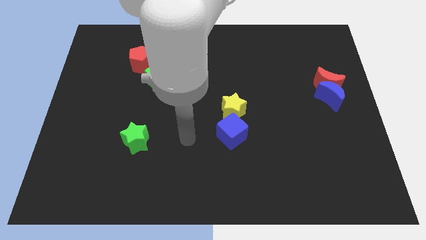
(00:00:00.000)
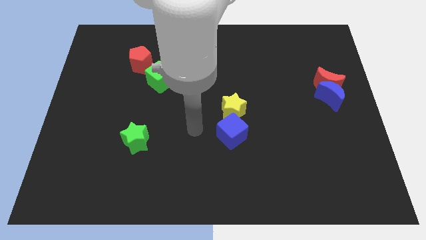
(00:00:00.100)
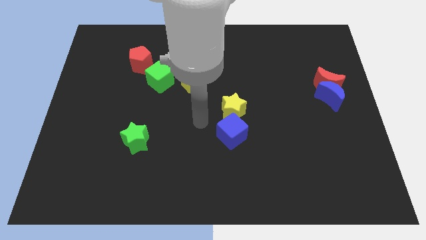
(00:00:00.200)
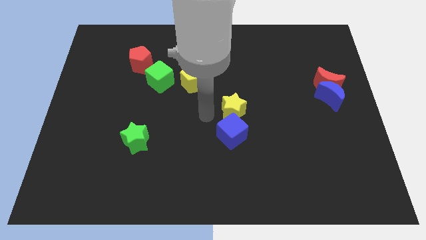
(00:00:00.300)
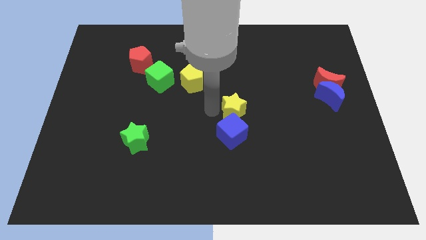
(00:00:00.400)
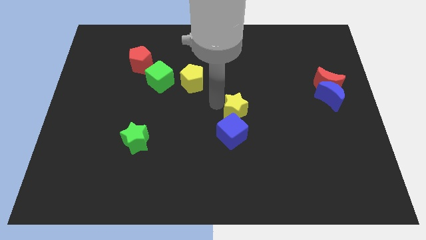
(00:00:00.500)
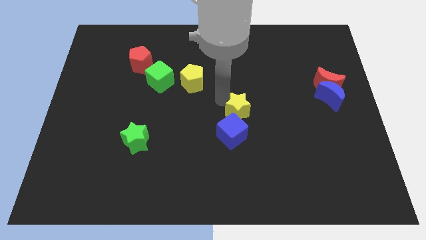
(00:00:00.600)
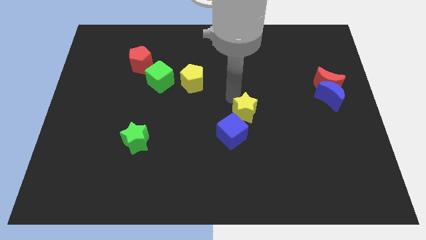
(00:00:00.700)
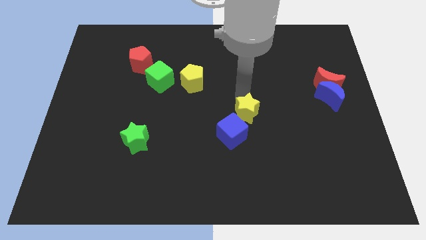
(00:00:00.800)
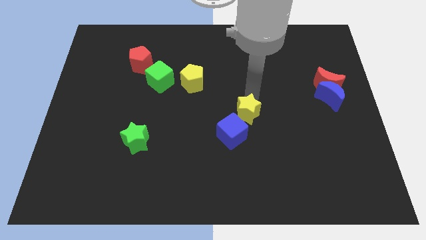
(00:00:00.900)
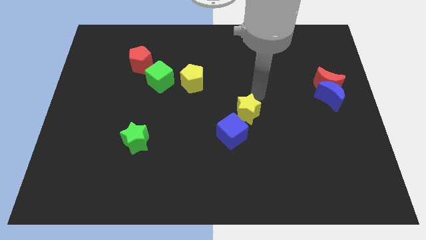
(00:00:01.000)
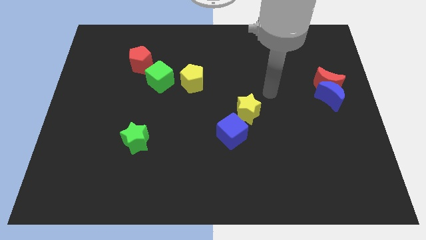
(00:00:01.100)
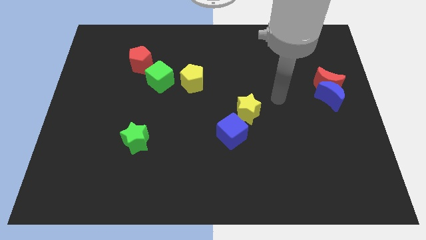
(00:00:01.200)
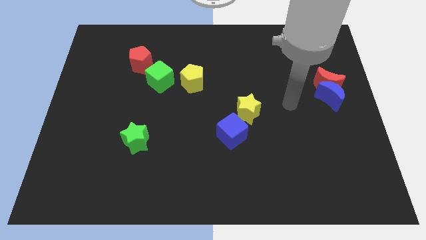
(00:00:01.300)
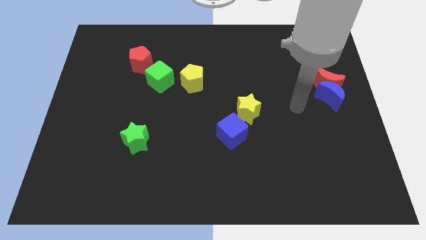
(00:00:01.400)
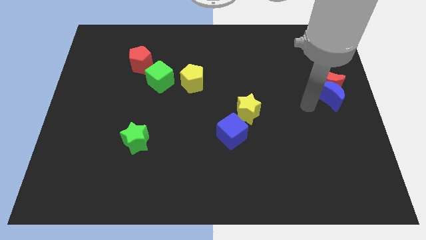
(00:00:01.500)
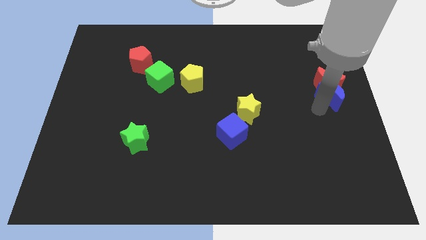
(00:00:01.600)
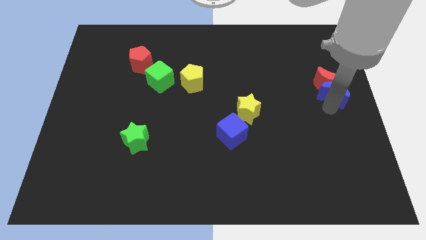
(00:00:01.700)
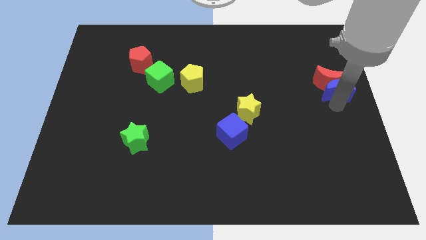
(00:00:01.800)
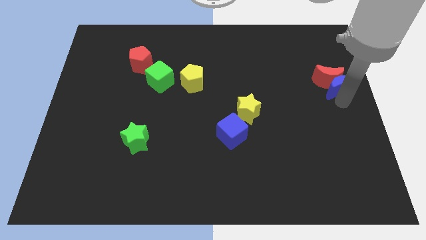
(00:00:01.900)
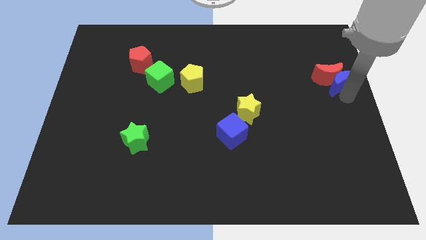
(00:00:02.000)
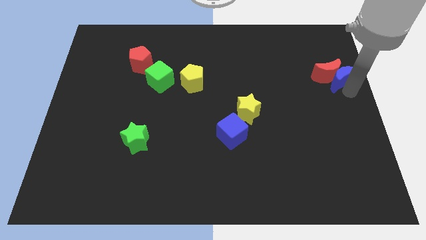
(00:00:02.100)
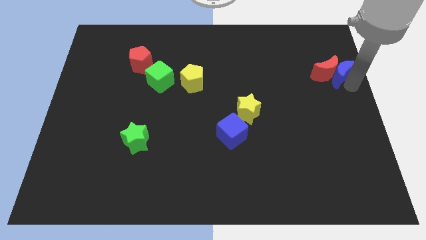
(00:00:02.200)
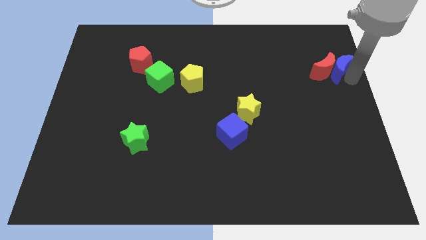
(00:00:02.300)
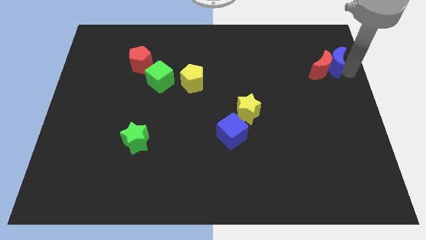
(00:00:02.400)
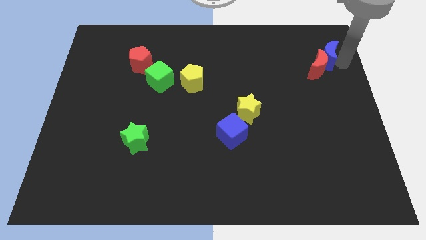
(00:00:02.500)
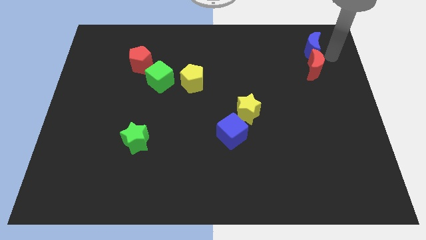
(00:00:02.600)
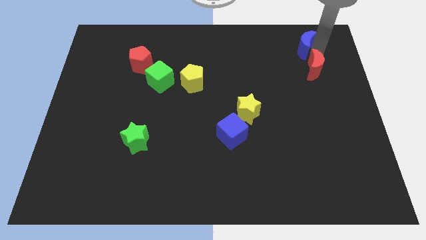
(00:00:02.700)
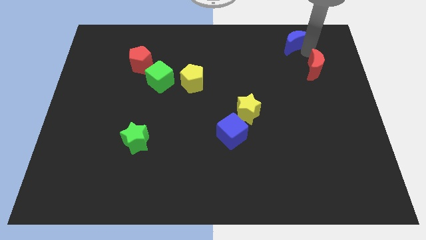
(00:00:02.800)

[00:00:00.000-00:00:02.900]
move the red moon away from the blue moon

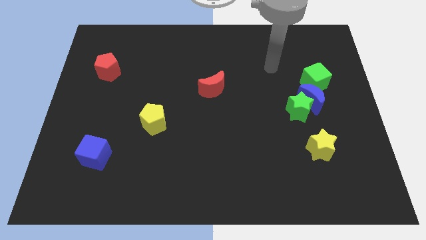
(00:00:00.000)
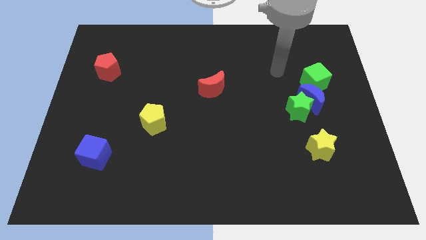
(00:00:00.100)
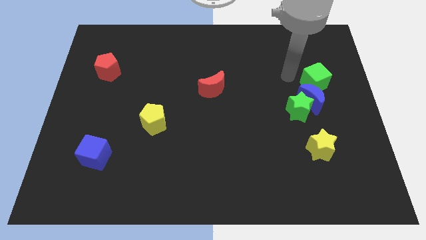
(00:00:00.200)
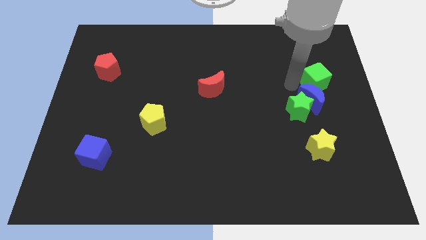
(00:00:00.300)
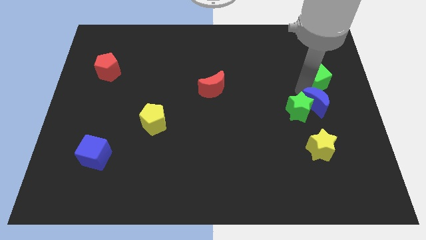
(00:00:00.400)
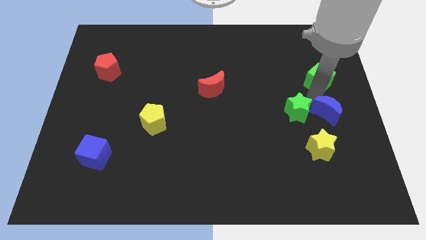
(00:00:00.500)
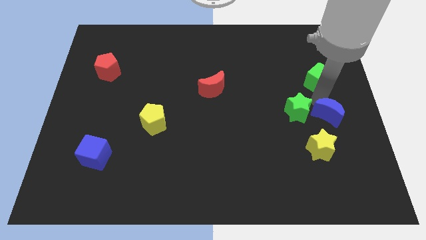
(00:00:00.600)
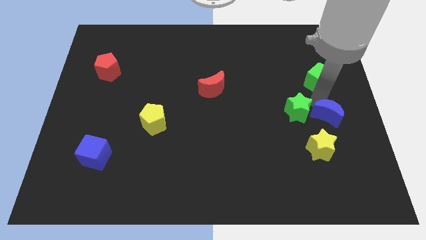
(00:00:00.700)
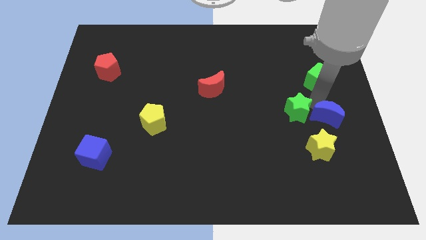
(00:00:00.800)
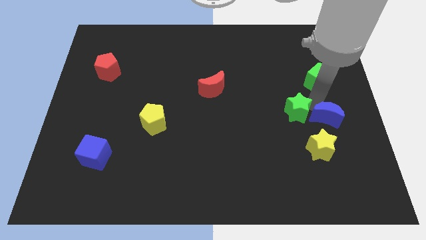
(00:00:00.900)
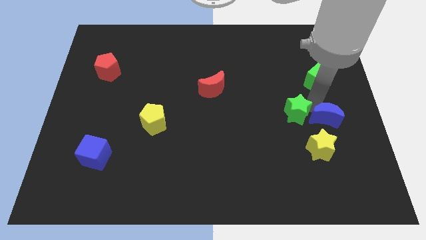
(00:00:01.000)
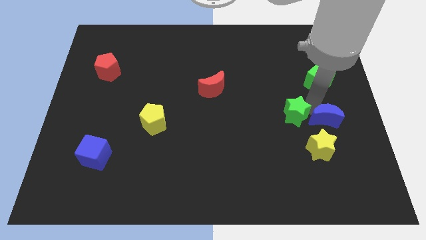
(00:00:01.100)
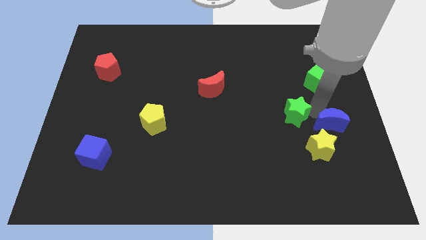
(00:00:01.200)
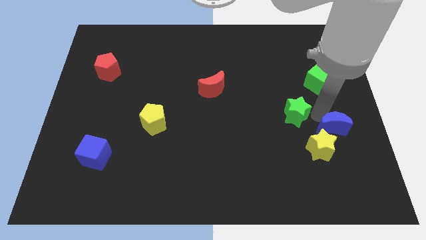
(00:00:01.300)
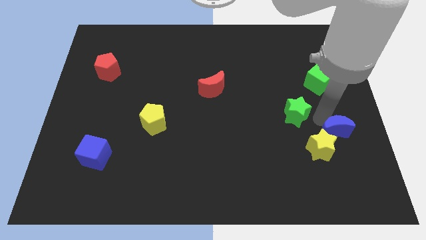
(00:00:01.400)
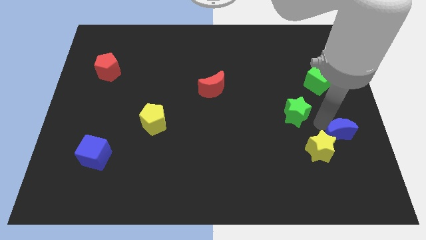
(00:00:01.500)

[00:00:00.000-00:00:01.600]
separate the green star from the blue moon

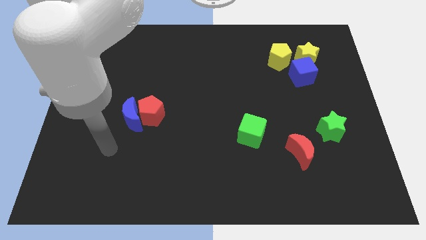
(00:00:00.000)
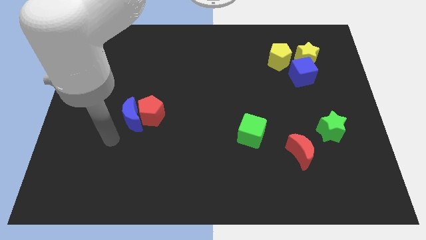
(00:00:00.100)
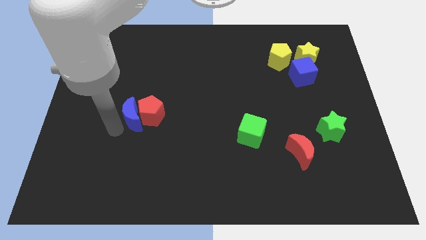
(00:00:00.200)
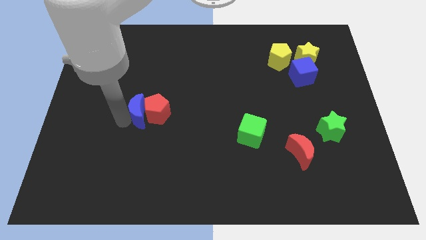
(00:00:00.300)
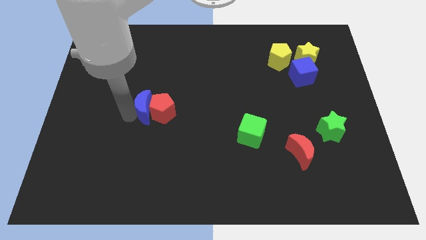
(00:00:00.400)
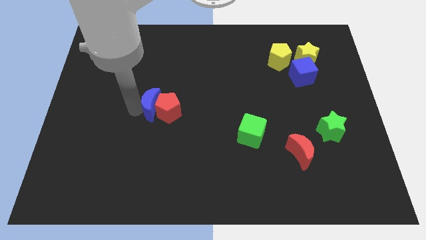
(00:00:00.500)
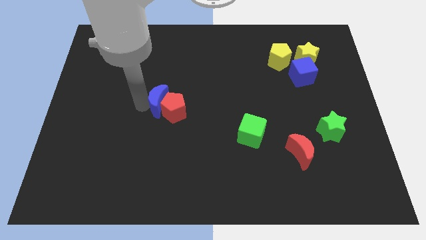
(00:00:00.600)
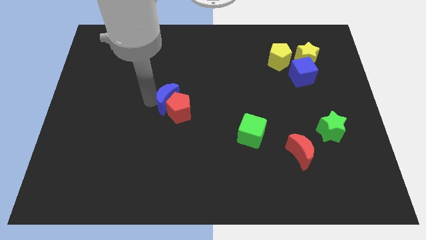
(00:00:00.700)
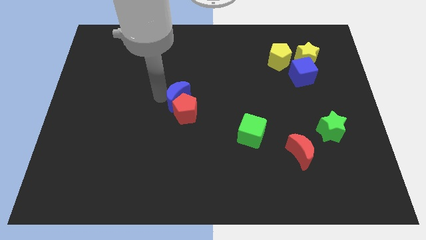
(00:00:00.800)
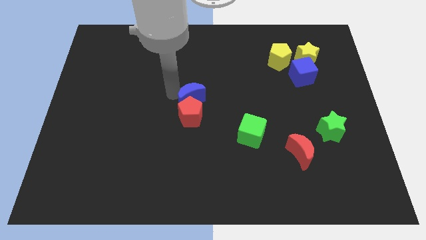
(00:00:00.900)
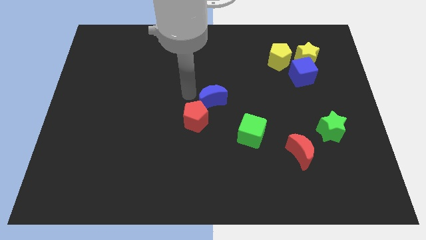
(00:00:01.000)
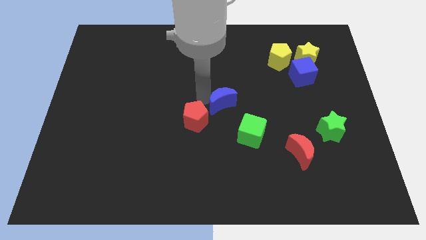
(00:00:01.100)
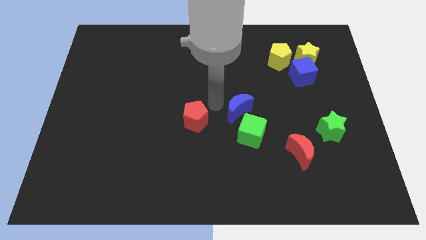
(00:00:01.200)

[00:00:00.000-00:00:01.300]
move the red pentagon away from the blue moon

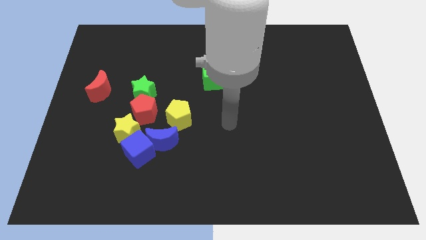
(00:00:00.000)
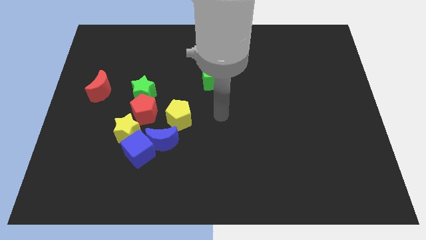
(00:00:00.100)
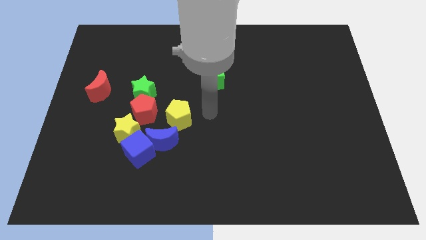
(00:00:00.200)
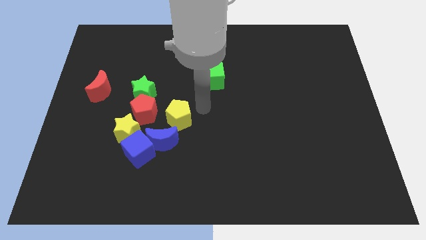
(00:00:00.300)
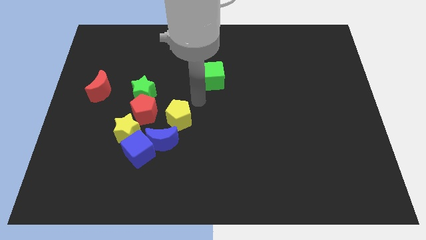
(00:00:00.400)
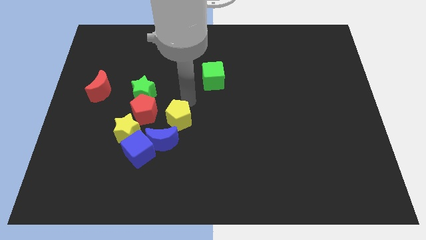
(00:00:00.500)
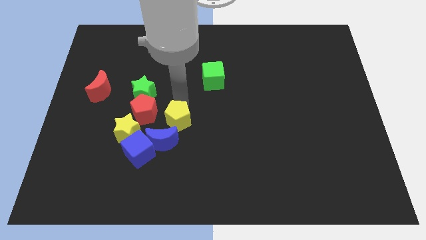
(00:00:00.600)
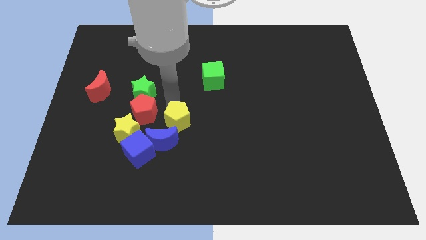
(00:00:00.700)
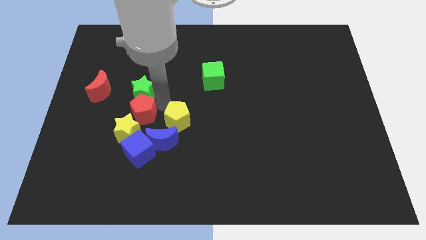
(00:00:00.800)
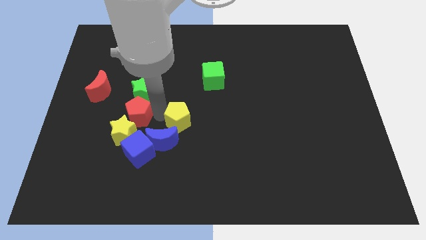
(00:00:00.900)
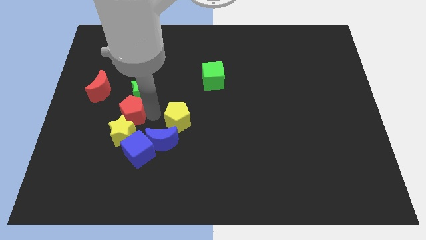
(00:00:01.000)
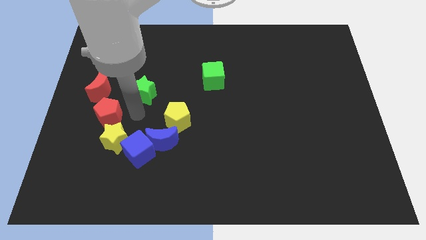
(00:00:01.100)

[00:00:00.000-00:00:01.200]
separate the green star from the red pentagon

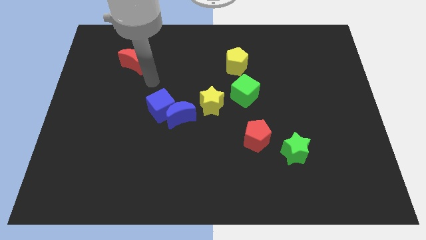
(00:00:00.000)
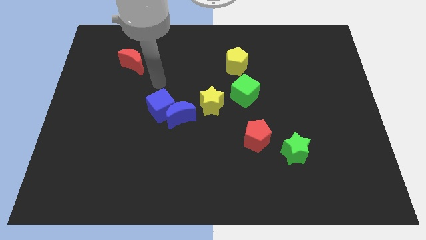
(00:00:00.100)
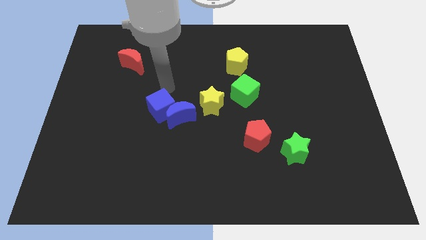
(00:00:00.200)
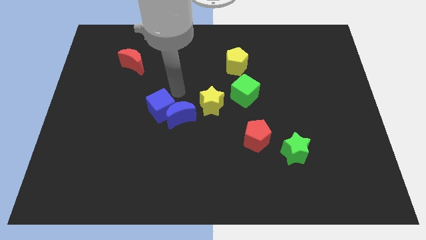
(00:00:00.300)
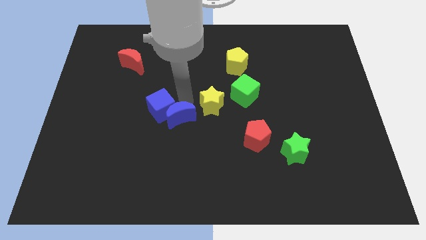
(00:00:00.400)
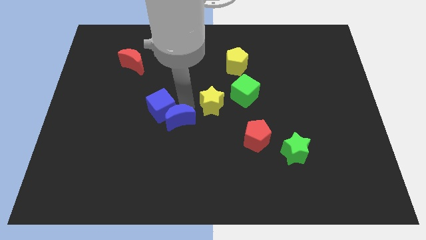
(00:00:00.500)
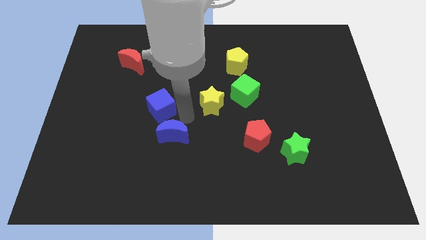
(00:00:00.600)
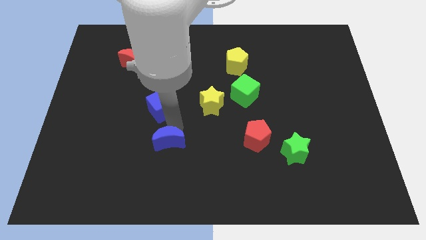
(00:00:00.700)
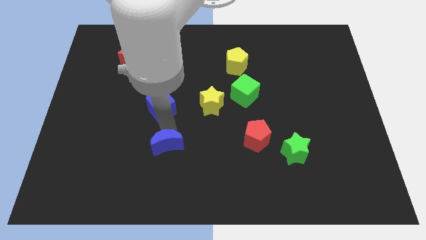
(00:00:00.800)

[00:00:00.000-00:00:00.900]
move the blue cube away from the blue moon

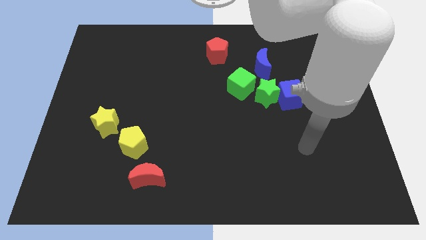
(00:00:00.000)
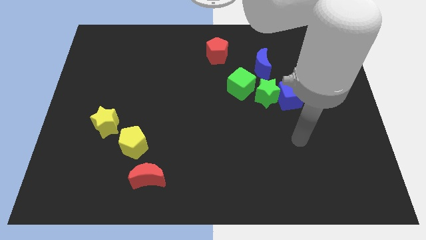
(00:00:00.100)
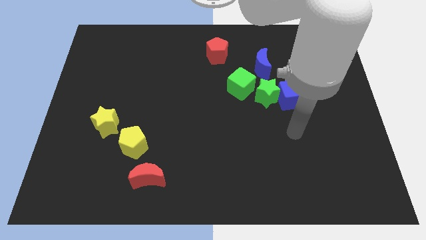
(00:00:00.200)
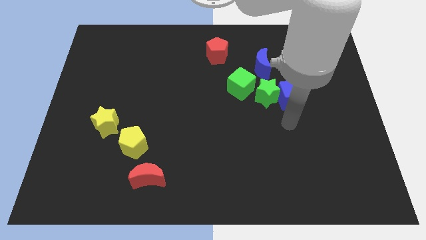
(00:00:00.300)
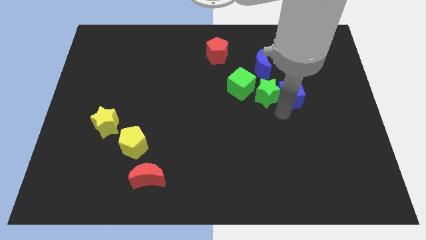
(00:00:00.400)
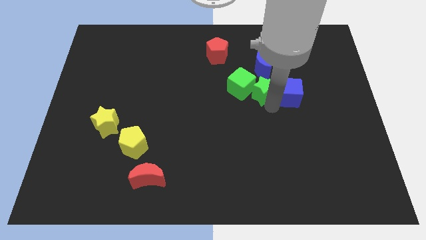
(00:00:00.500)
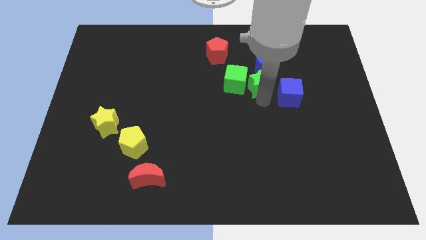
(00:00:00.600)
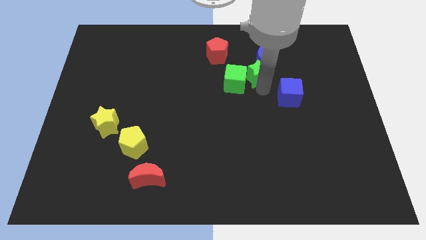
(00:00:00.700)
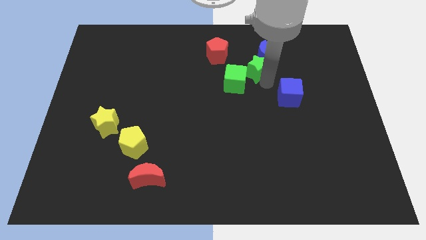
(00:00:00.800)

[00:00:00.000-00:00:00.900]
pull the blue cube apart from the green star

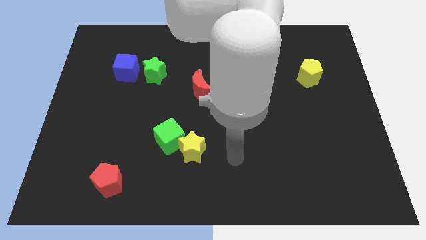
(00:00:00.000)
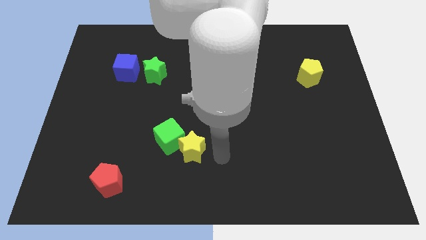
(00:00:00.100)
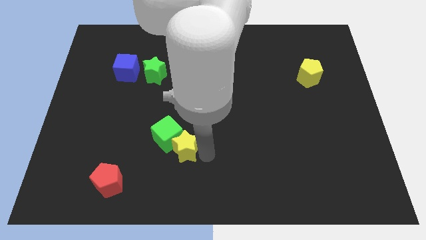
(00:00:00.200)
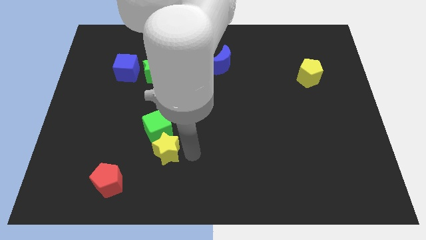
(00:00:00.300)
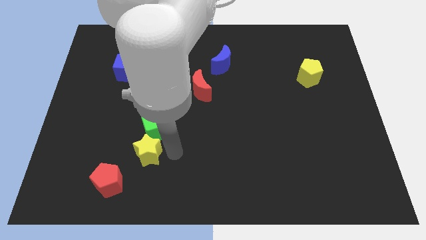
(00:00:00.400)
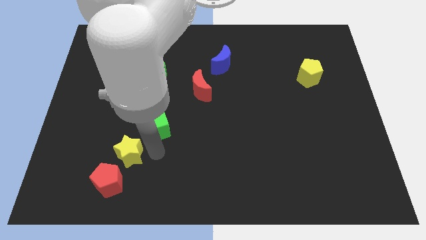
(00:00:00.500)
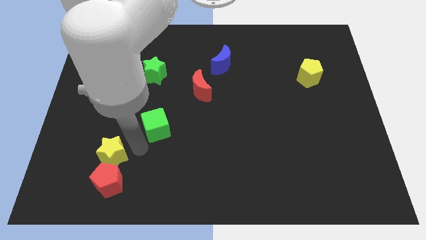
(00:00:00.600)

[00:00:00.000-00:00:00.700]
separate the green cube from the yellow star
